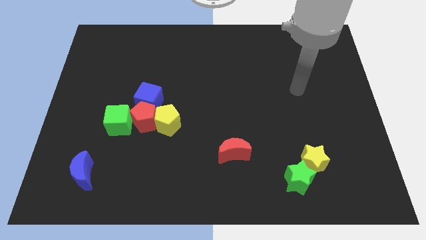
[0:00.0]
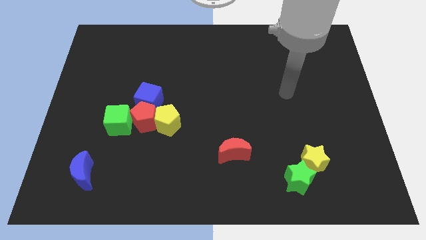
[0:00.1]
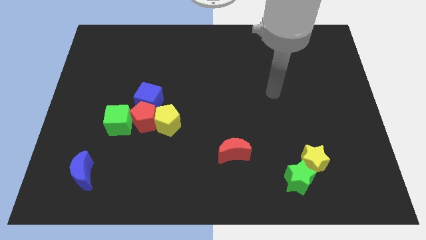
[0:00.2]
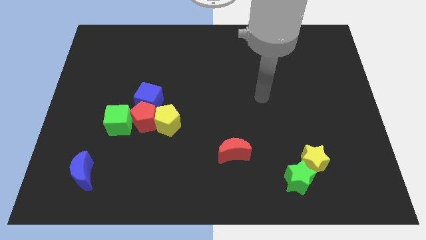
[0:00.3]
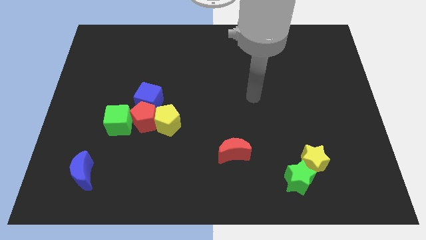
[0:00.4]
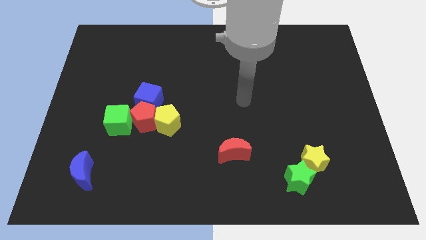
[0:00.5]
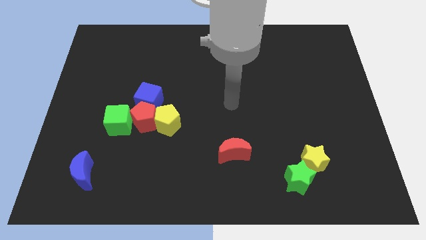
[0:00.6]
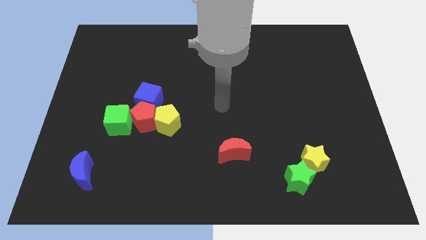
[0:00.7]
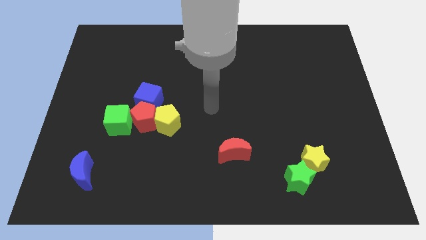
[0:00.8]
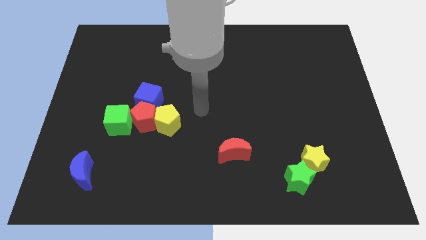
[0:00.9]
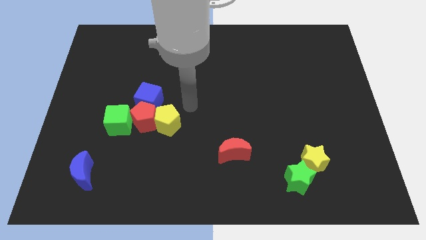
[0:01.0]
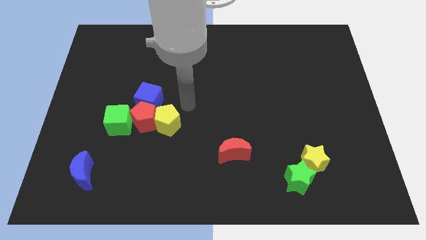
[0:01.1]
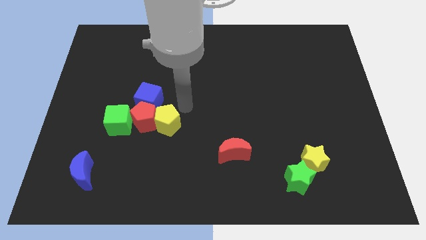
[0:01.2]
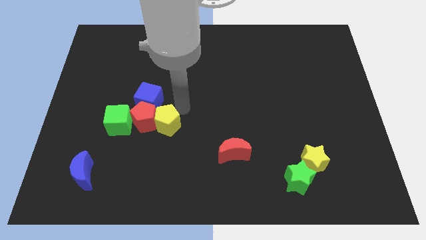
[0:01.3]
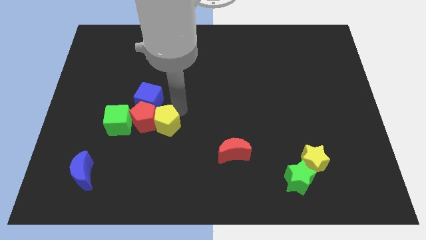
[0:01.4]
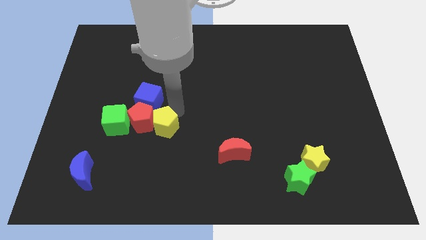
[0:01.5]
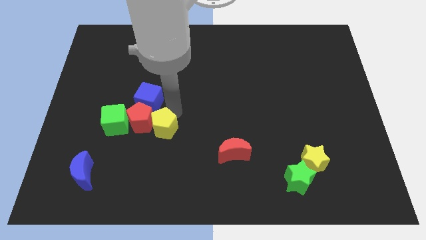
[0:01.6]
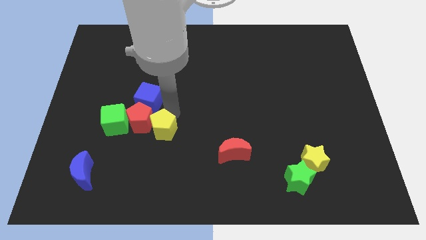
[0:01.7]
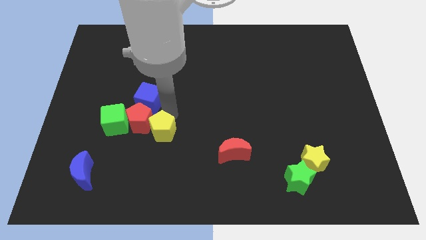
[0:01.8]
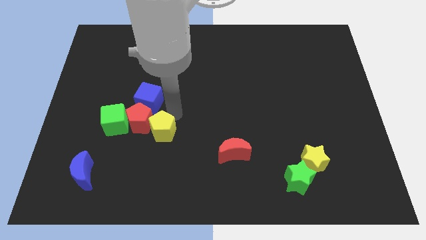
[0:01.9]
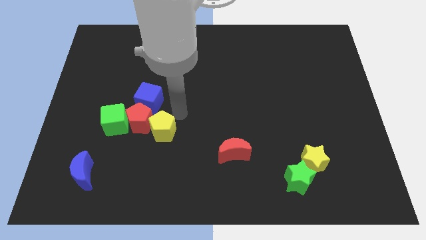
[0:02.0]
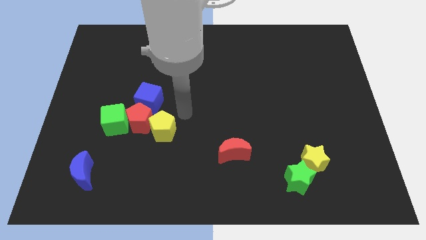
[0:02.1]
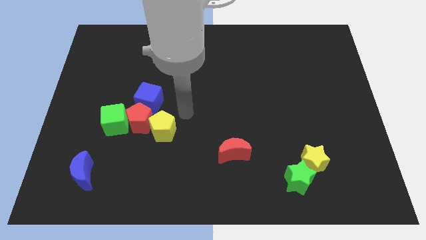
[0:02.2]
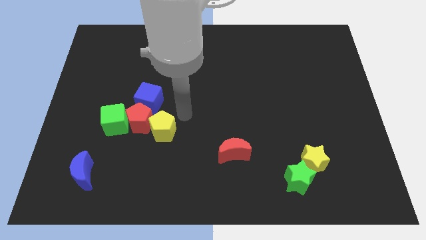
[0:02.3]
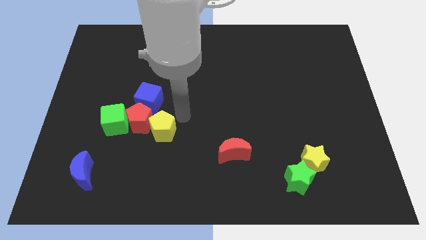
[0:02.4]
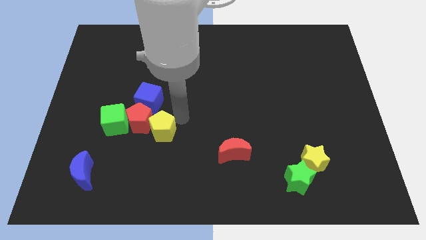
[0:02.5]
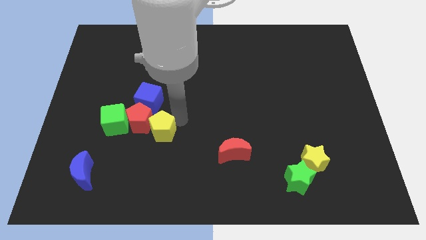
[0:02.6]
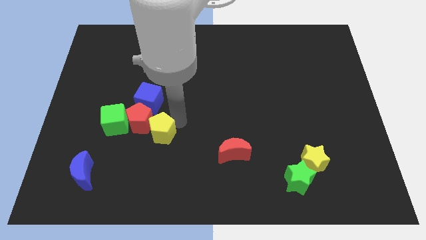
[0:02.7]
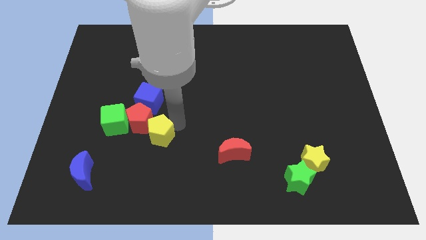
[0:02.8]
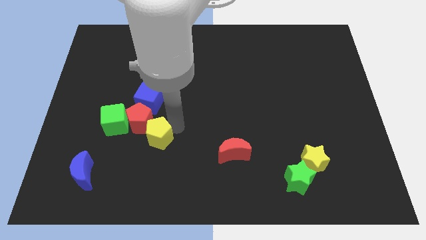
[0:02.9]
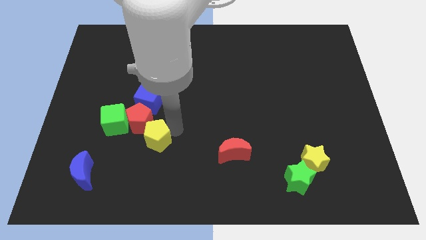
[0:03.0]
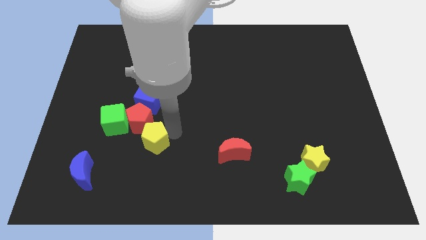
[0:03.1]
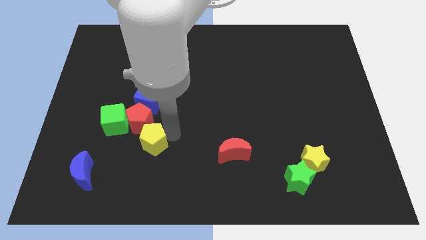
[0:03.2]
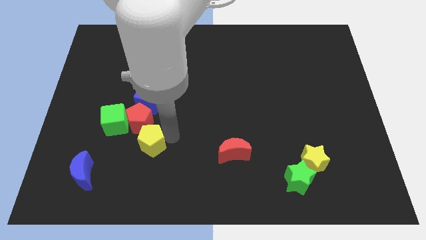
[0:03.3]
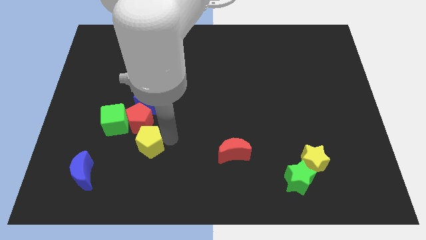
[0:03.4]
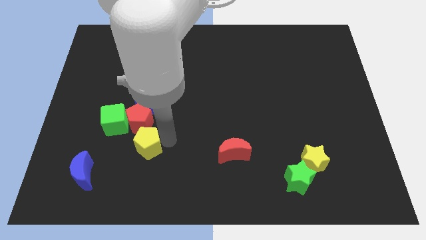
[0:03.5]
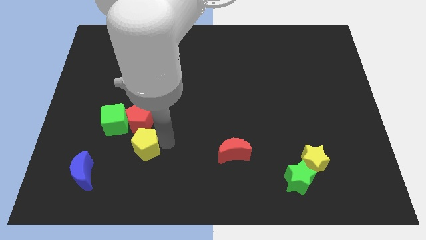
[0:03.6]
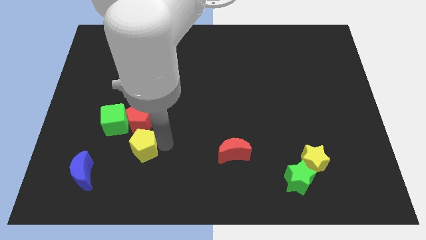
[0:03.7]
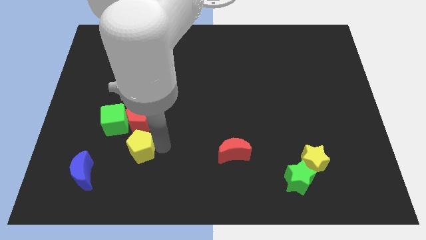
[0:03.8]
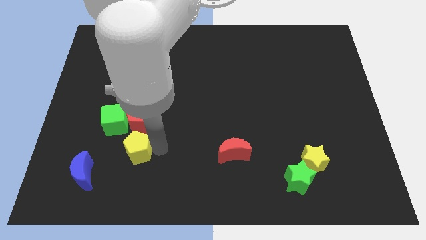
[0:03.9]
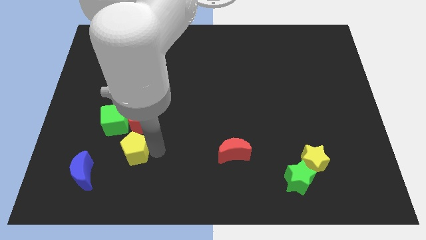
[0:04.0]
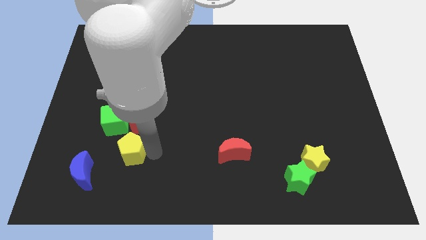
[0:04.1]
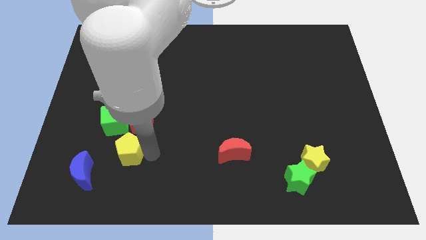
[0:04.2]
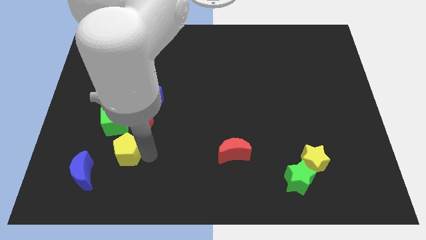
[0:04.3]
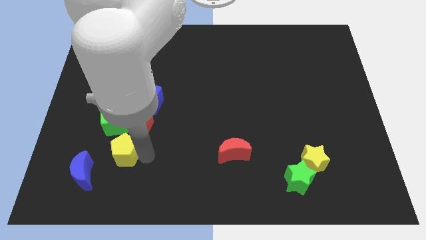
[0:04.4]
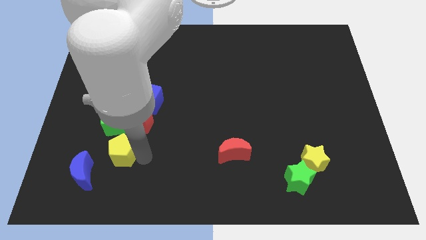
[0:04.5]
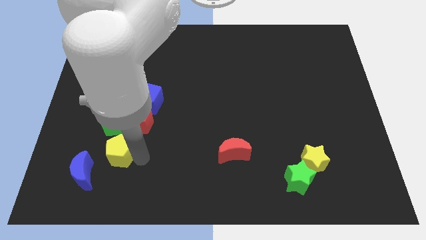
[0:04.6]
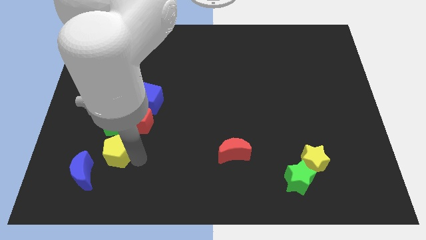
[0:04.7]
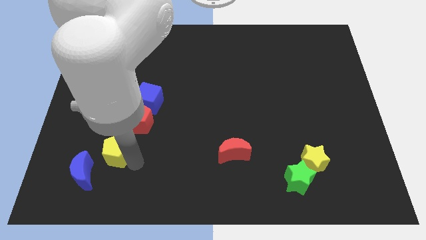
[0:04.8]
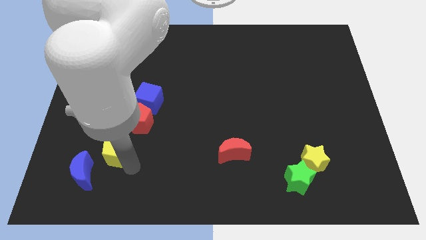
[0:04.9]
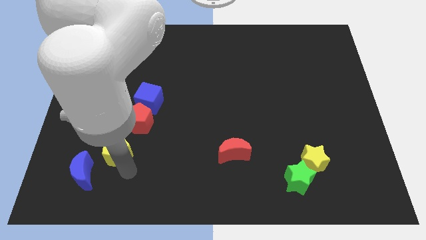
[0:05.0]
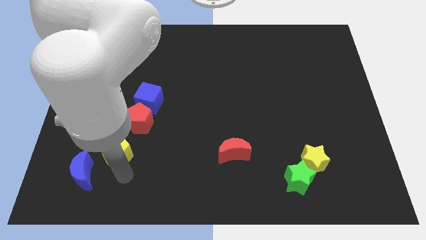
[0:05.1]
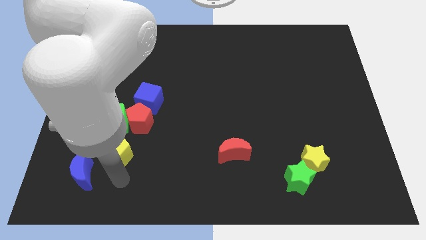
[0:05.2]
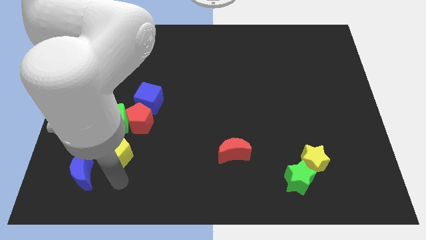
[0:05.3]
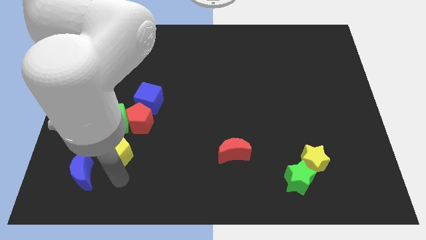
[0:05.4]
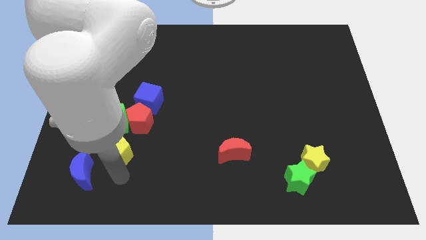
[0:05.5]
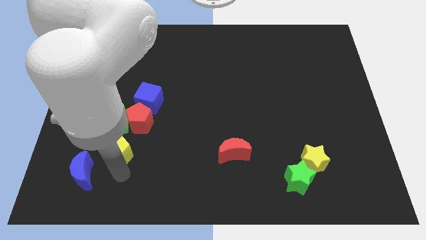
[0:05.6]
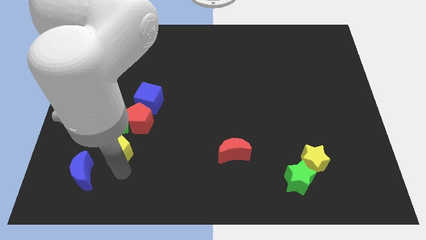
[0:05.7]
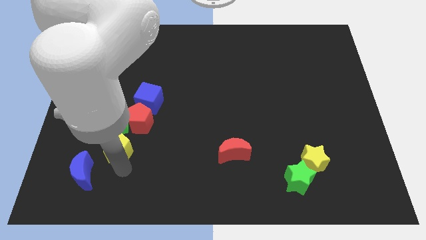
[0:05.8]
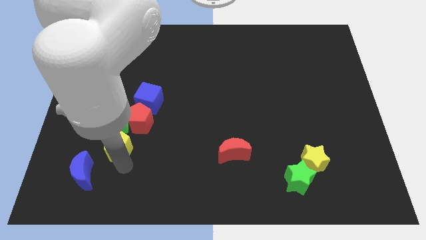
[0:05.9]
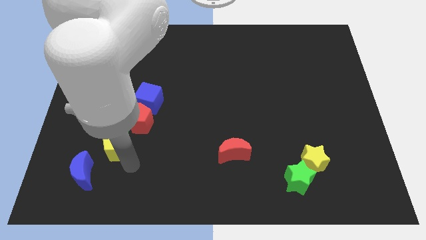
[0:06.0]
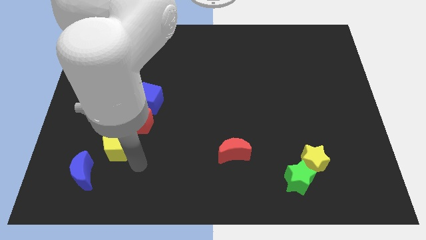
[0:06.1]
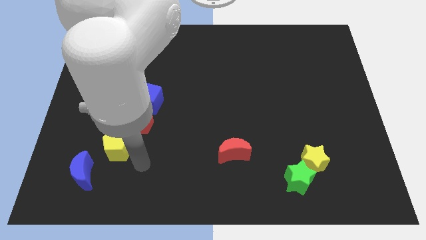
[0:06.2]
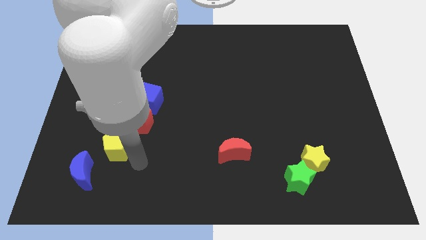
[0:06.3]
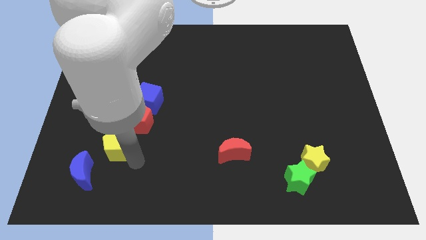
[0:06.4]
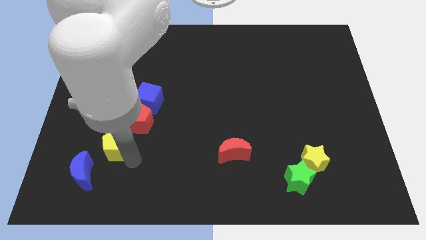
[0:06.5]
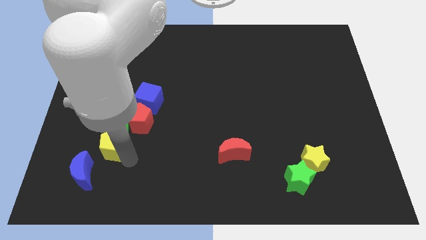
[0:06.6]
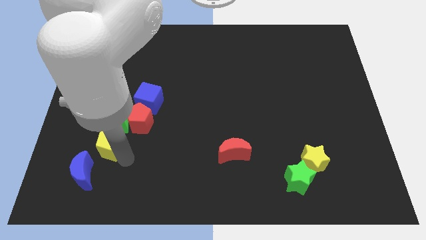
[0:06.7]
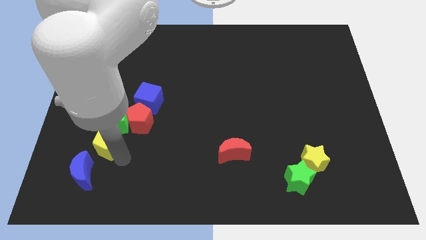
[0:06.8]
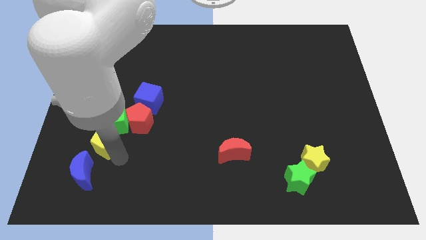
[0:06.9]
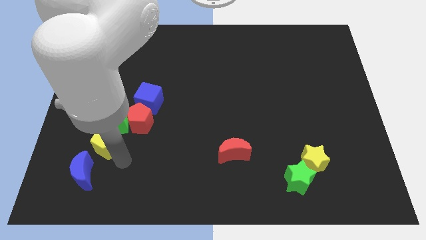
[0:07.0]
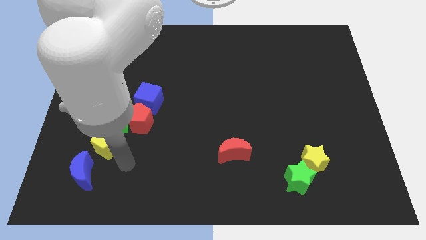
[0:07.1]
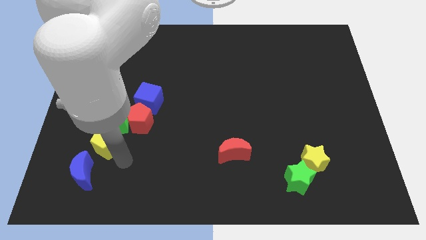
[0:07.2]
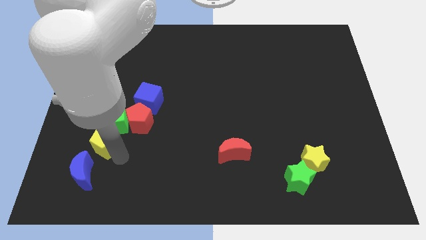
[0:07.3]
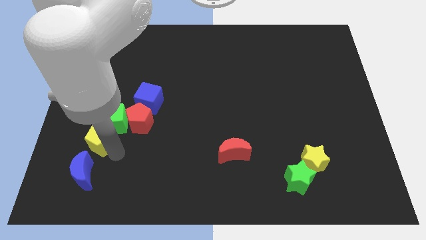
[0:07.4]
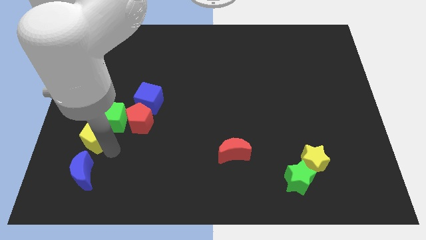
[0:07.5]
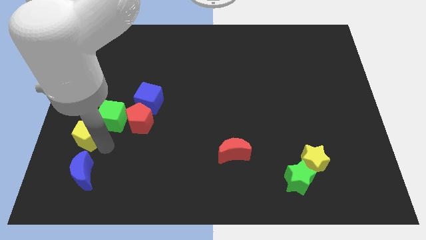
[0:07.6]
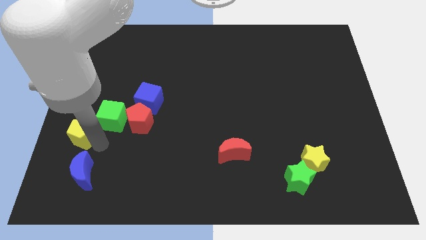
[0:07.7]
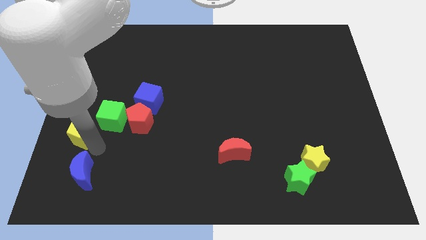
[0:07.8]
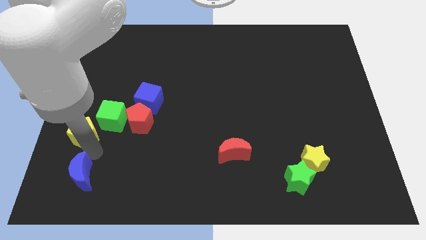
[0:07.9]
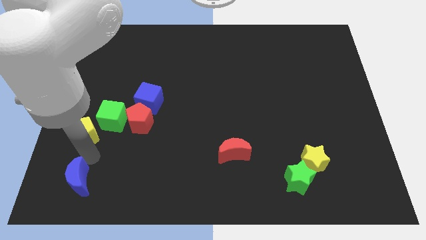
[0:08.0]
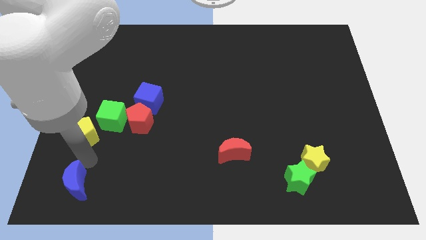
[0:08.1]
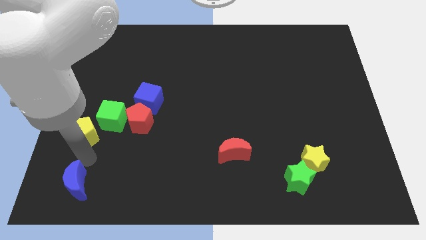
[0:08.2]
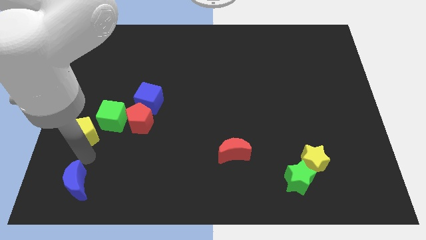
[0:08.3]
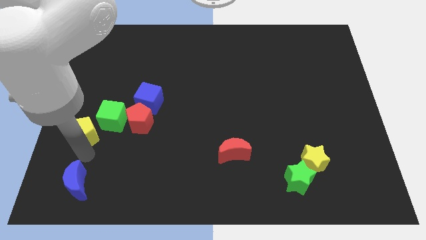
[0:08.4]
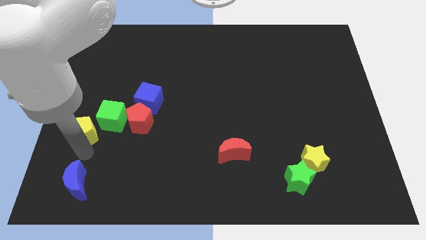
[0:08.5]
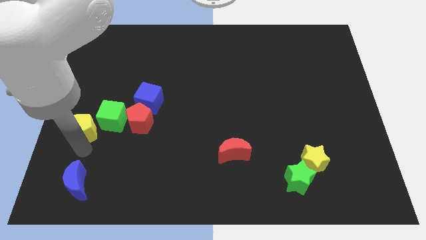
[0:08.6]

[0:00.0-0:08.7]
move the yellow pentagon to the center left
